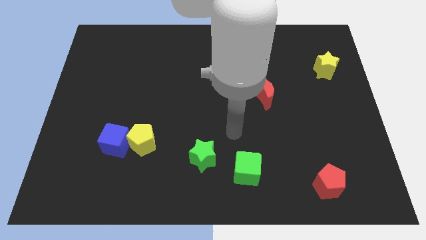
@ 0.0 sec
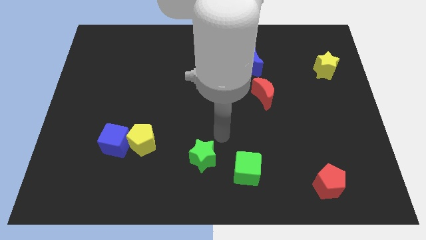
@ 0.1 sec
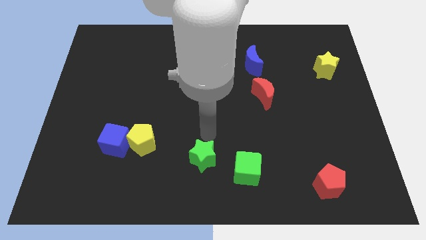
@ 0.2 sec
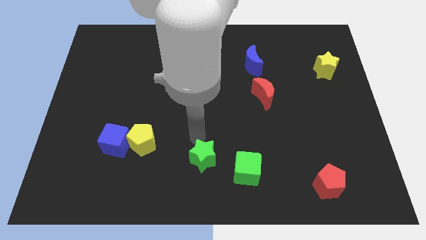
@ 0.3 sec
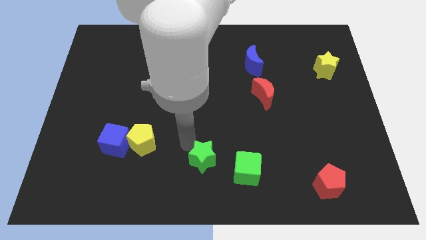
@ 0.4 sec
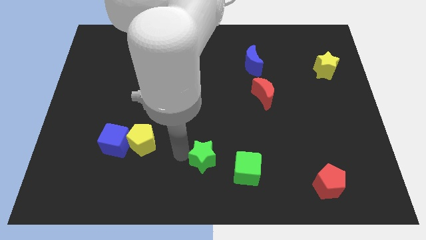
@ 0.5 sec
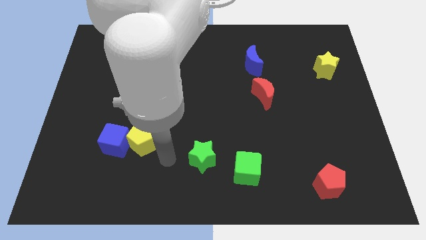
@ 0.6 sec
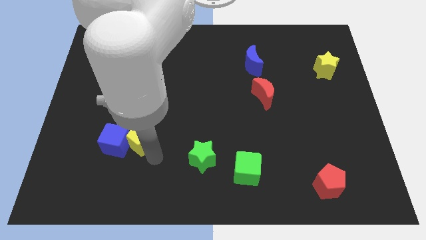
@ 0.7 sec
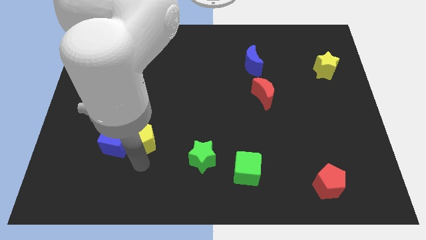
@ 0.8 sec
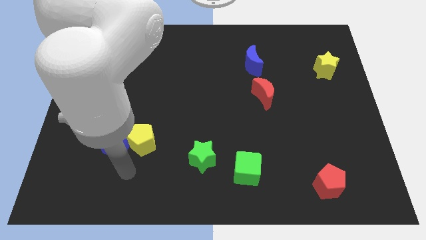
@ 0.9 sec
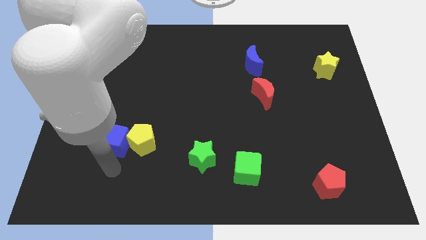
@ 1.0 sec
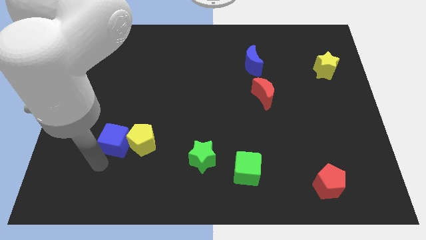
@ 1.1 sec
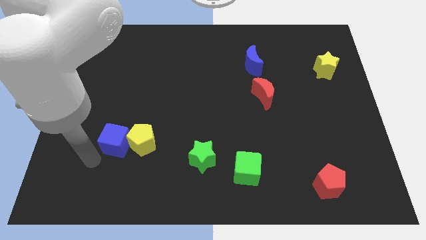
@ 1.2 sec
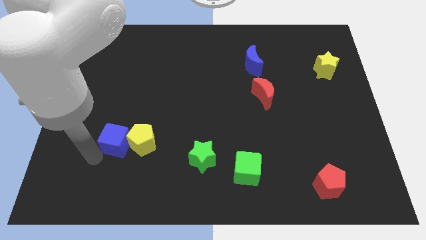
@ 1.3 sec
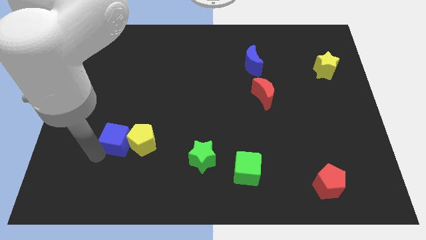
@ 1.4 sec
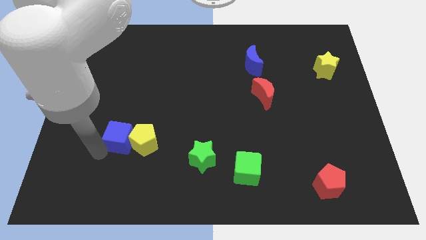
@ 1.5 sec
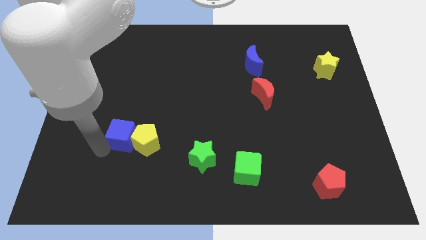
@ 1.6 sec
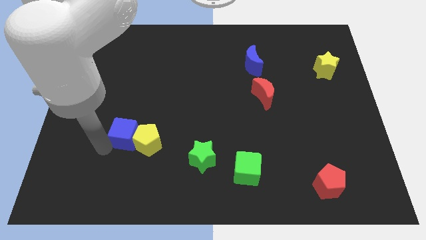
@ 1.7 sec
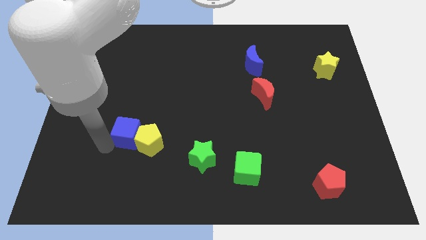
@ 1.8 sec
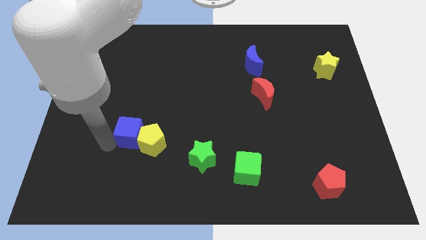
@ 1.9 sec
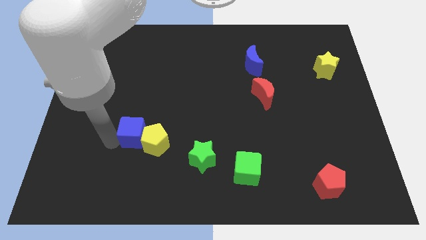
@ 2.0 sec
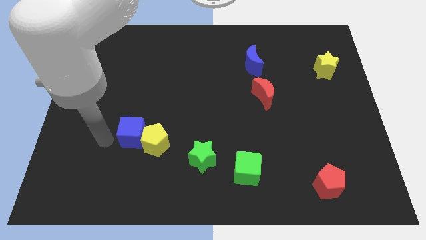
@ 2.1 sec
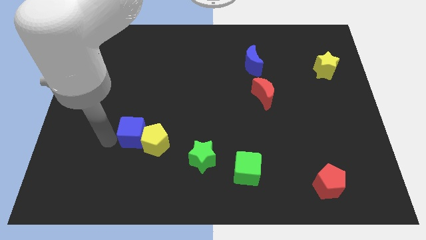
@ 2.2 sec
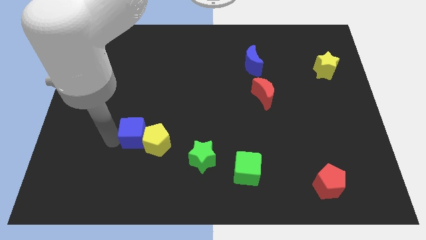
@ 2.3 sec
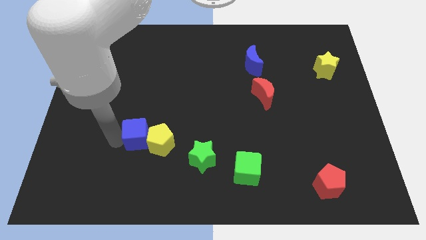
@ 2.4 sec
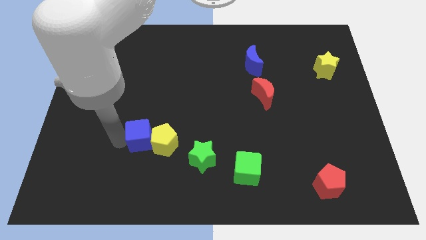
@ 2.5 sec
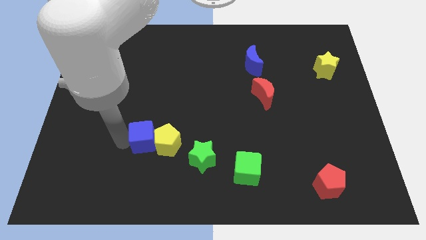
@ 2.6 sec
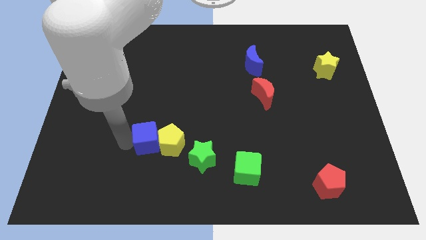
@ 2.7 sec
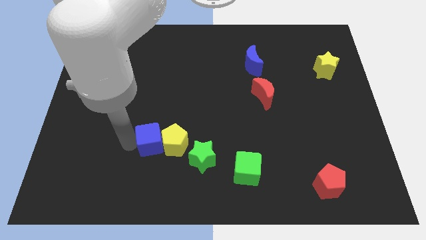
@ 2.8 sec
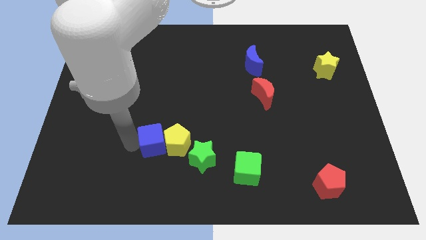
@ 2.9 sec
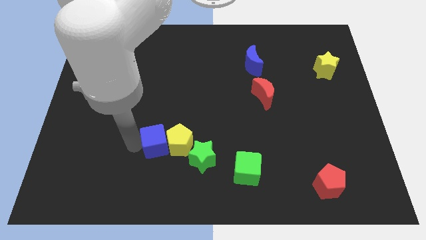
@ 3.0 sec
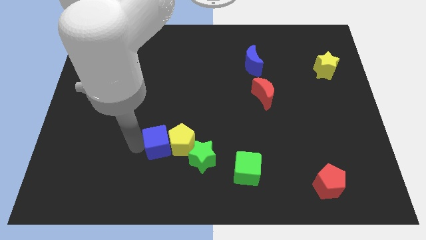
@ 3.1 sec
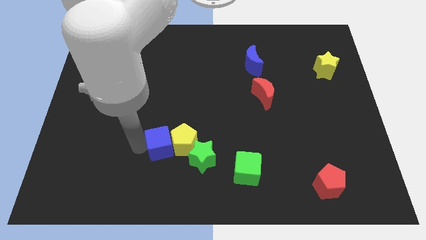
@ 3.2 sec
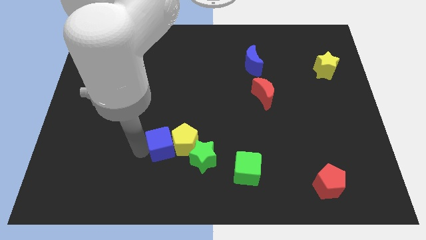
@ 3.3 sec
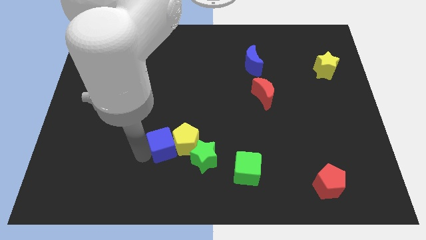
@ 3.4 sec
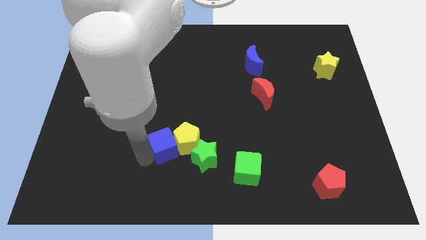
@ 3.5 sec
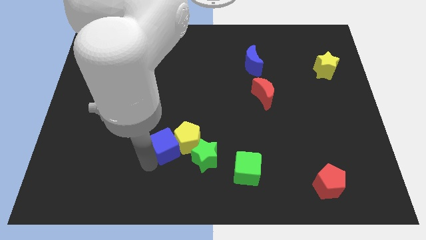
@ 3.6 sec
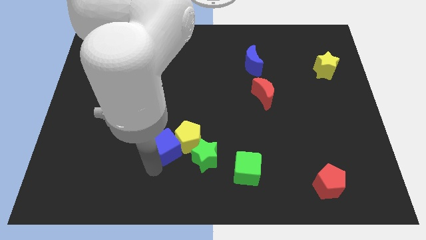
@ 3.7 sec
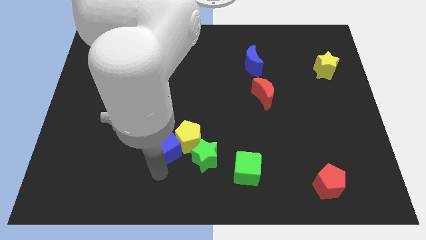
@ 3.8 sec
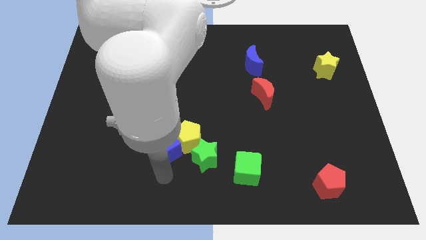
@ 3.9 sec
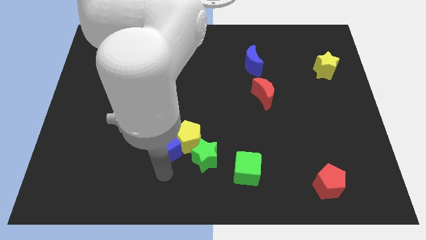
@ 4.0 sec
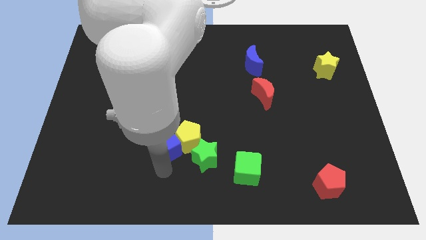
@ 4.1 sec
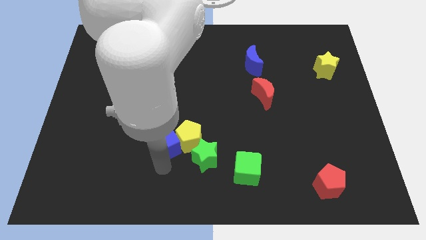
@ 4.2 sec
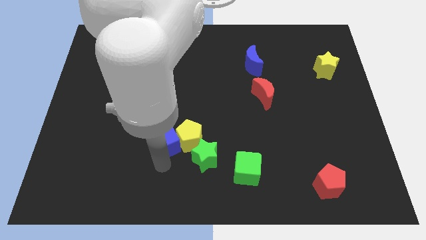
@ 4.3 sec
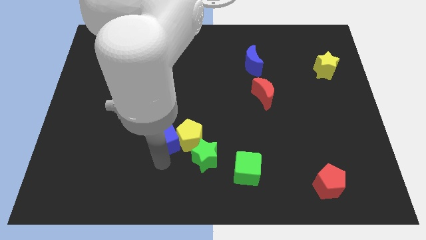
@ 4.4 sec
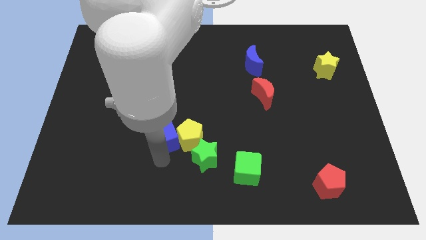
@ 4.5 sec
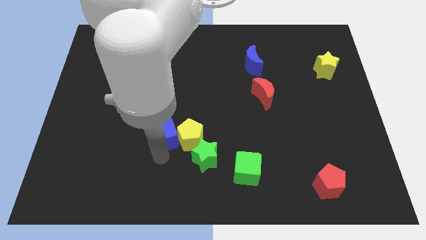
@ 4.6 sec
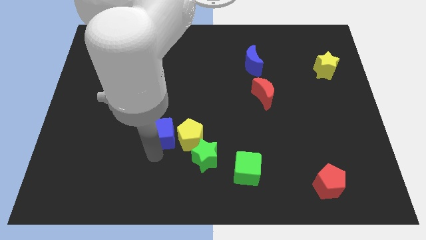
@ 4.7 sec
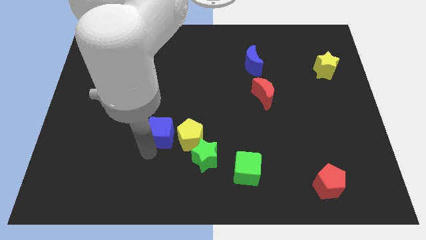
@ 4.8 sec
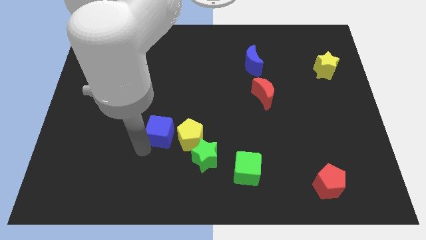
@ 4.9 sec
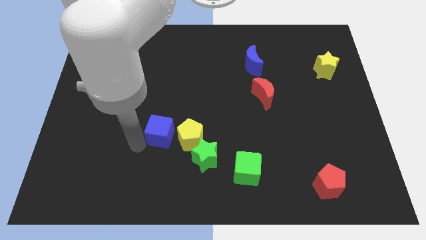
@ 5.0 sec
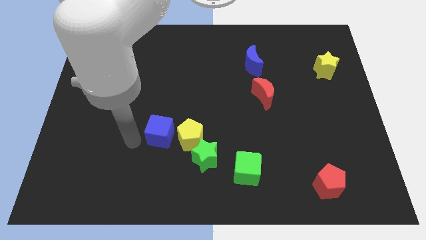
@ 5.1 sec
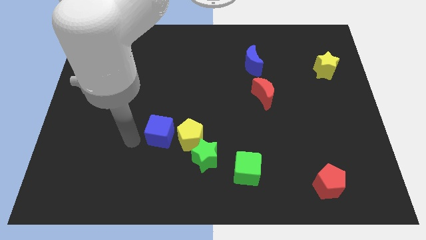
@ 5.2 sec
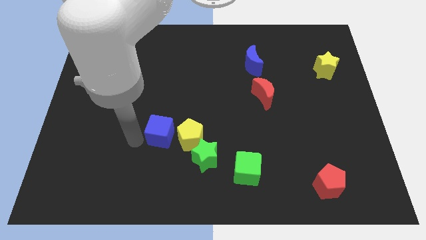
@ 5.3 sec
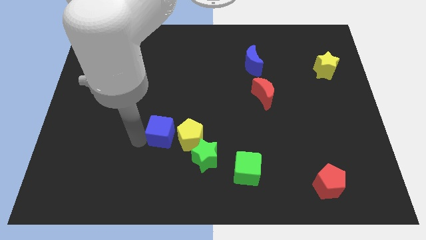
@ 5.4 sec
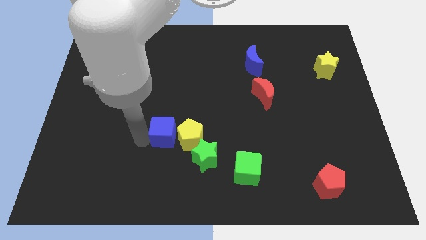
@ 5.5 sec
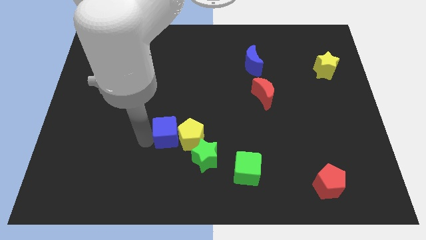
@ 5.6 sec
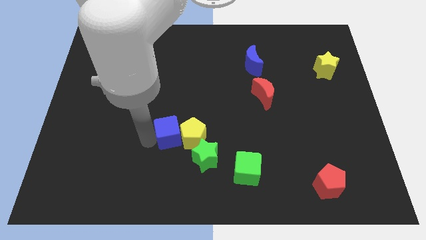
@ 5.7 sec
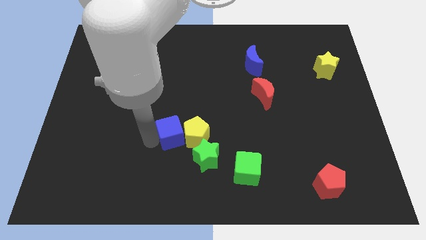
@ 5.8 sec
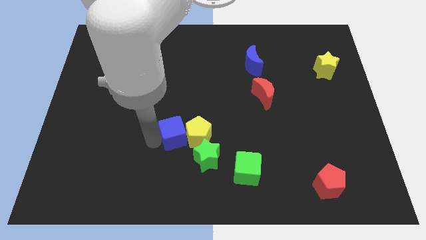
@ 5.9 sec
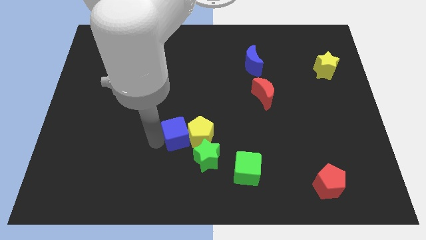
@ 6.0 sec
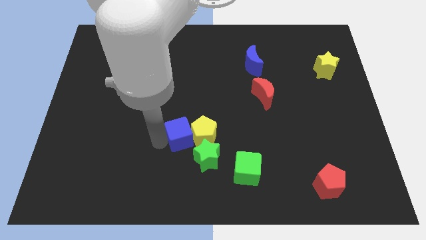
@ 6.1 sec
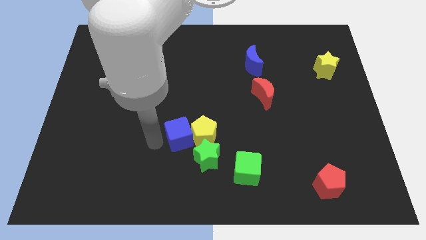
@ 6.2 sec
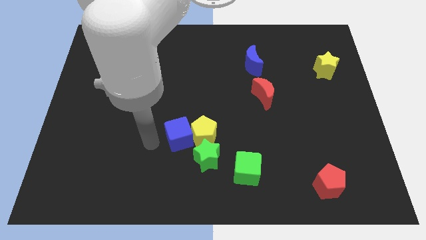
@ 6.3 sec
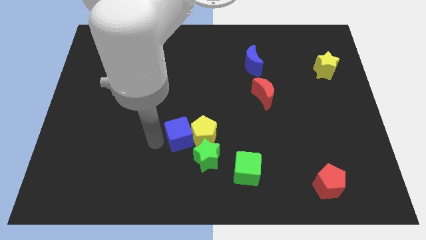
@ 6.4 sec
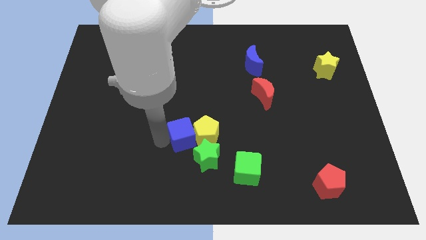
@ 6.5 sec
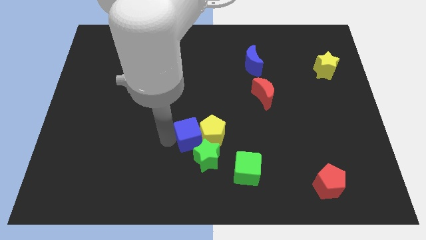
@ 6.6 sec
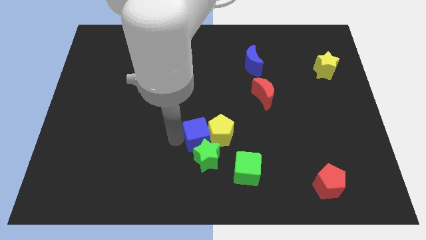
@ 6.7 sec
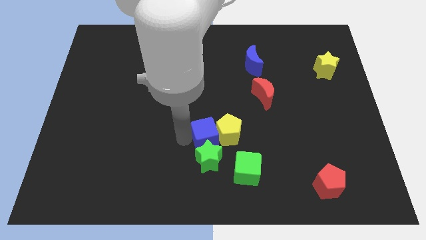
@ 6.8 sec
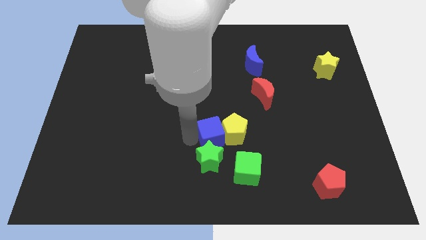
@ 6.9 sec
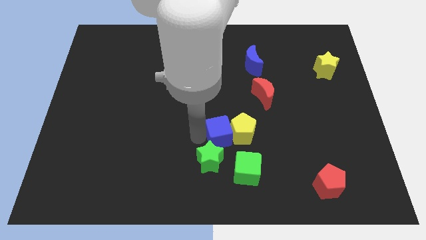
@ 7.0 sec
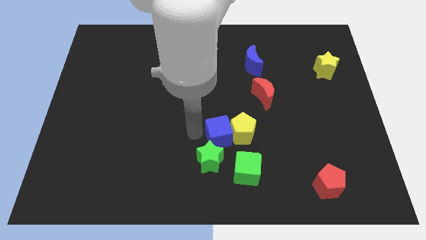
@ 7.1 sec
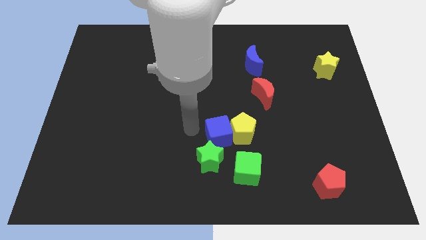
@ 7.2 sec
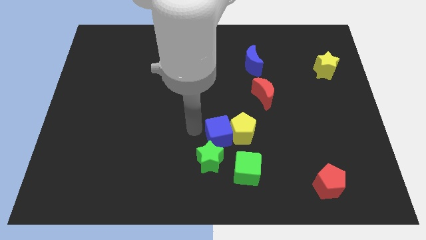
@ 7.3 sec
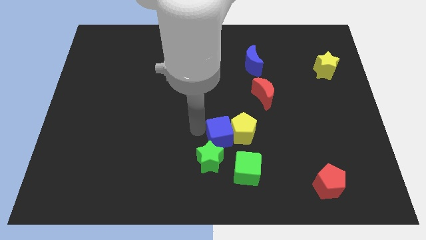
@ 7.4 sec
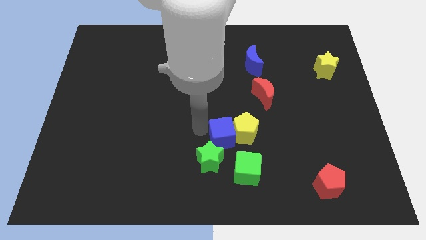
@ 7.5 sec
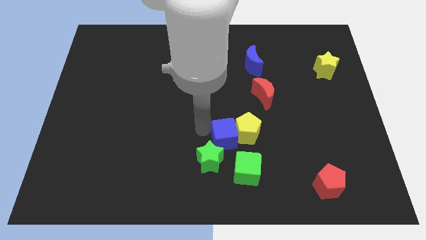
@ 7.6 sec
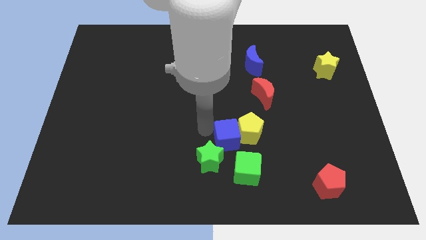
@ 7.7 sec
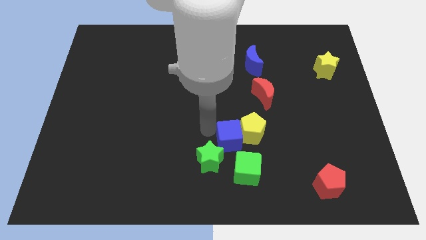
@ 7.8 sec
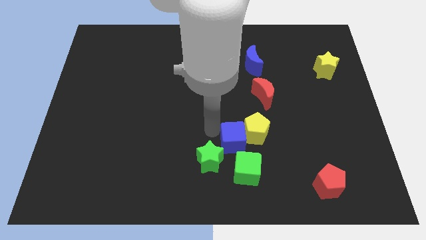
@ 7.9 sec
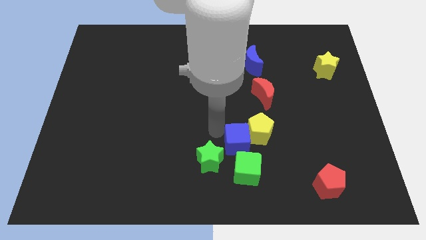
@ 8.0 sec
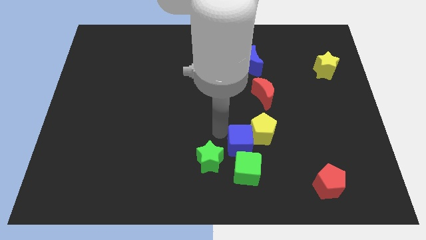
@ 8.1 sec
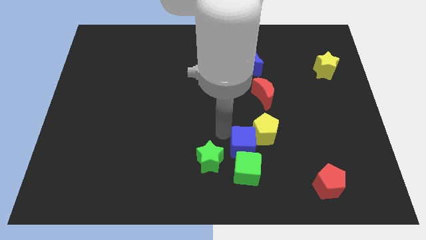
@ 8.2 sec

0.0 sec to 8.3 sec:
slide the blue cube diagonally up and to the right of the green cube
